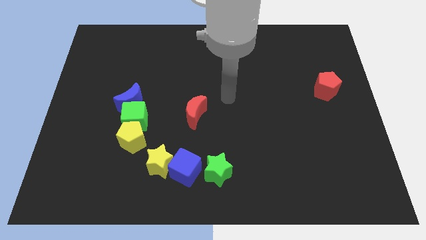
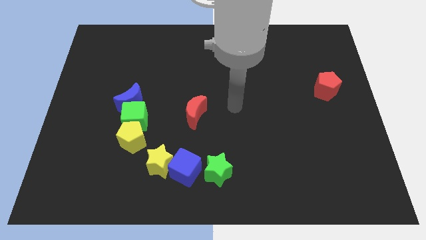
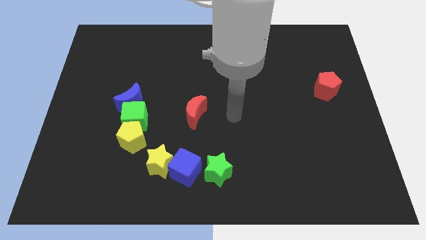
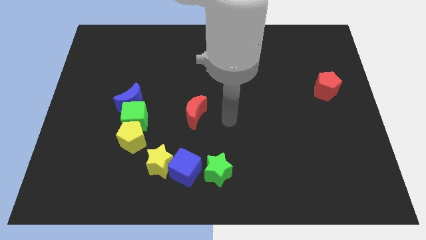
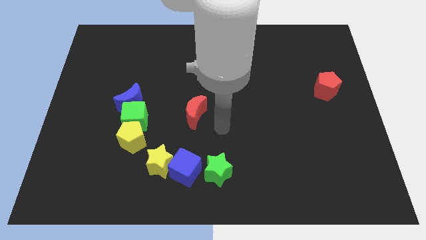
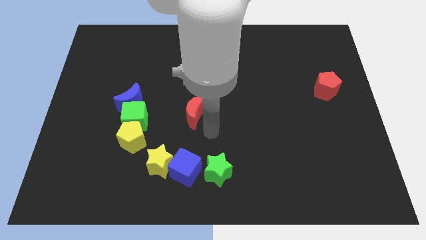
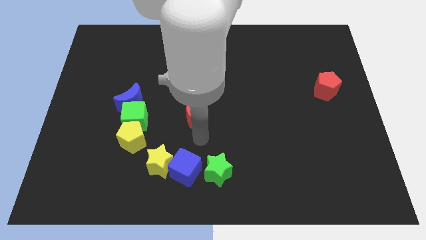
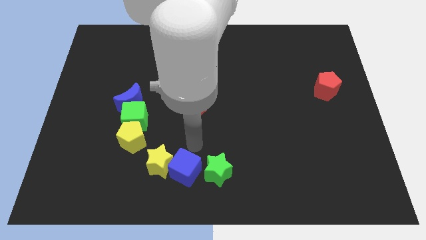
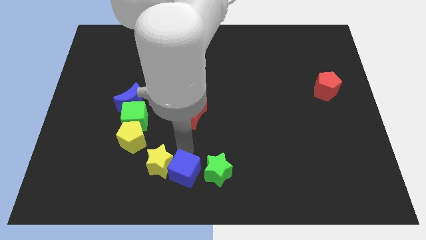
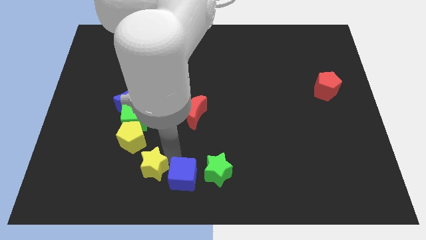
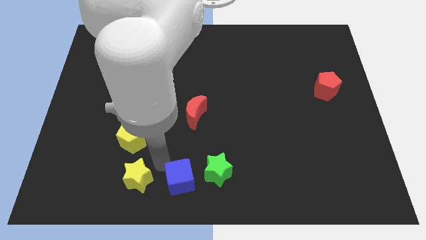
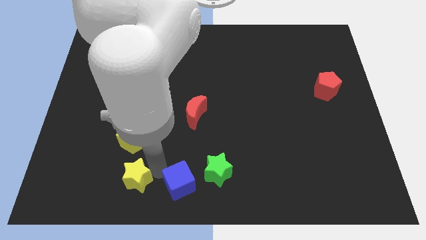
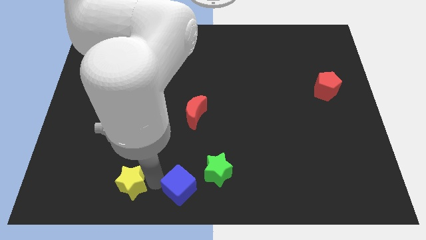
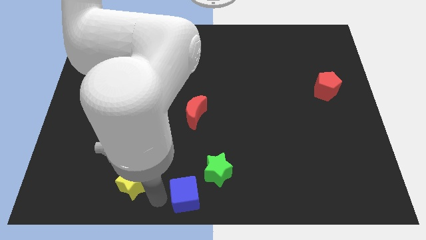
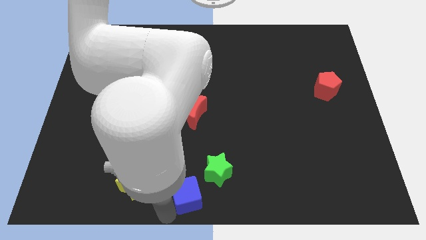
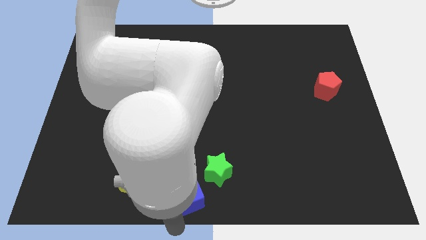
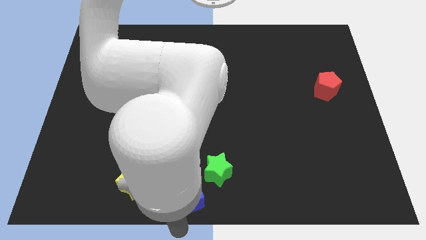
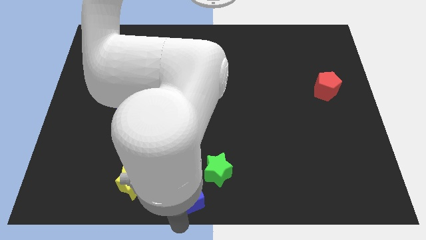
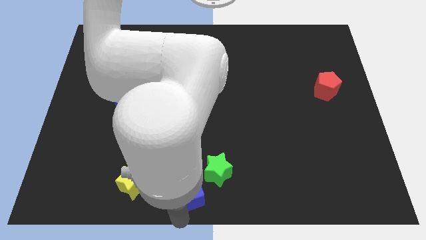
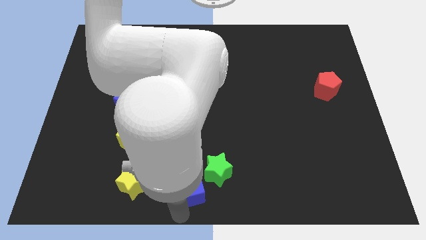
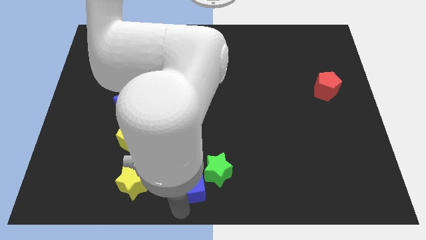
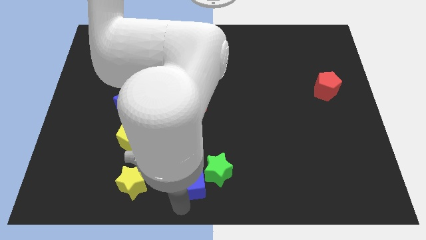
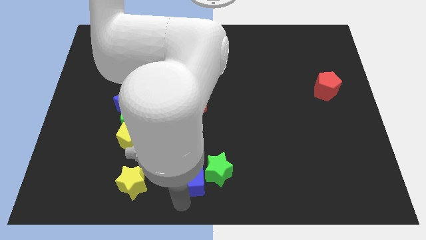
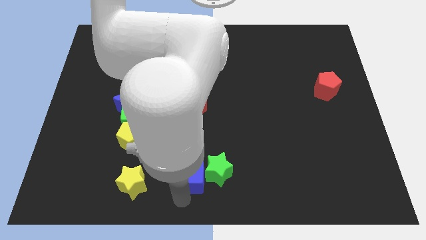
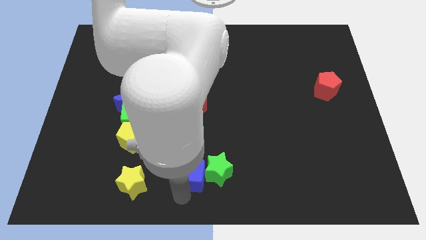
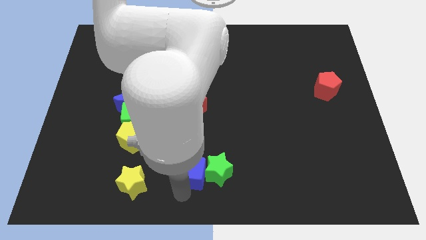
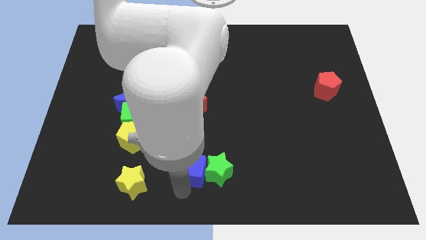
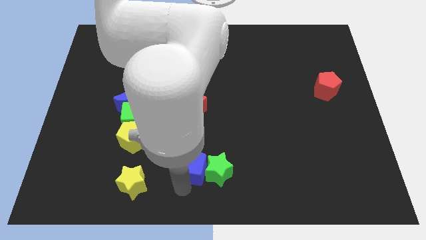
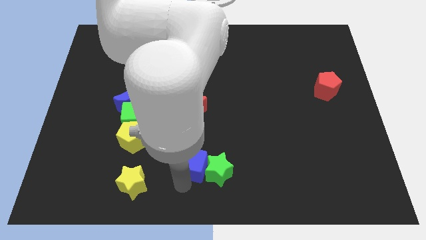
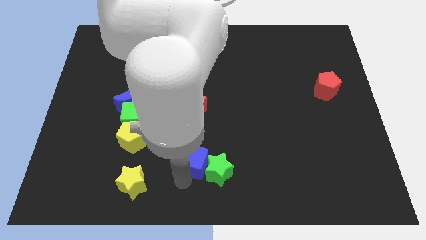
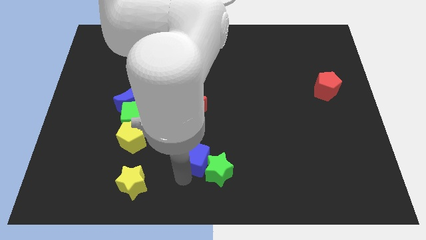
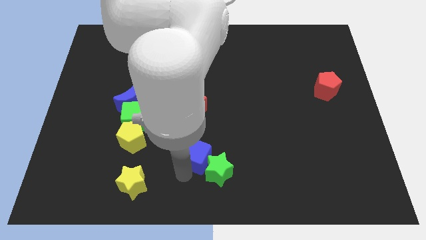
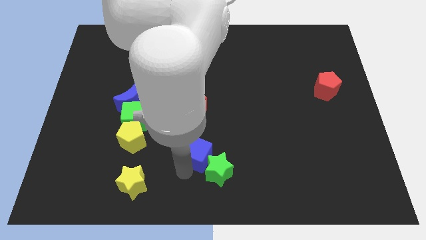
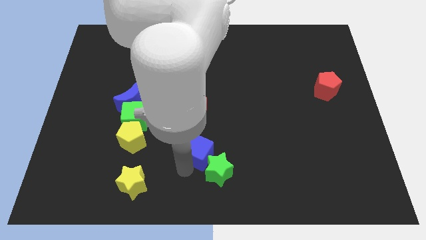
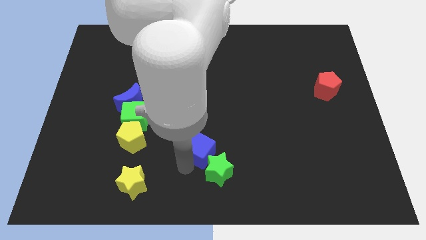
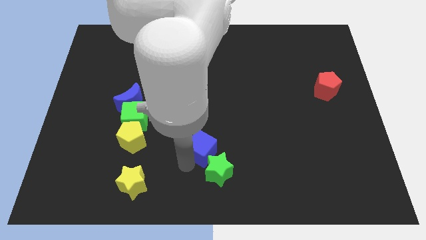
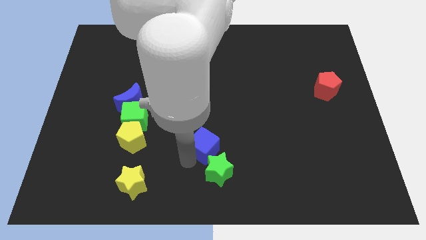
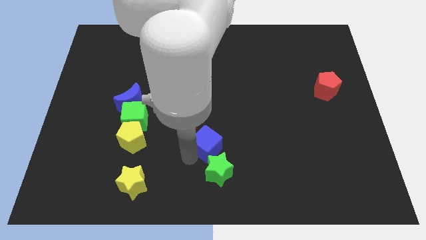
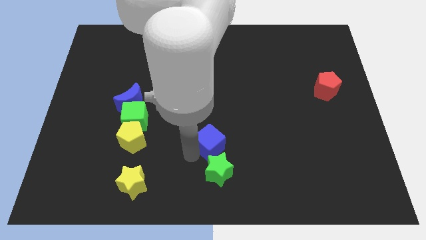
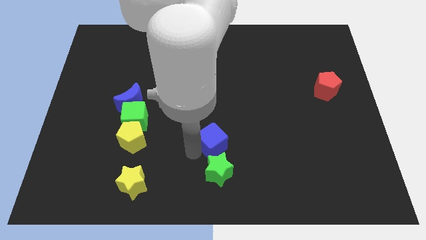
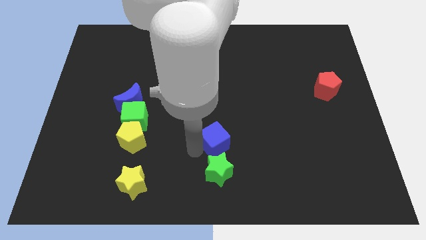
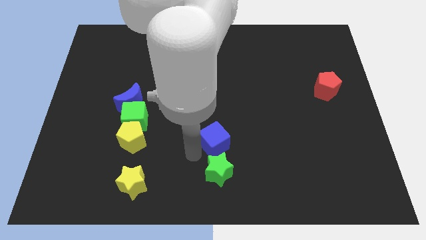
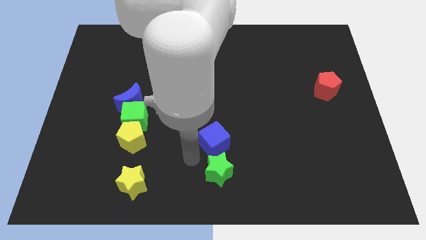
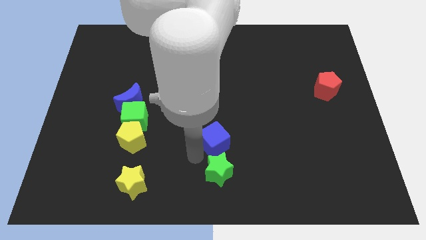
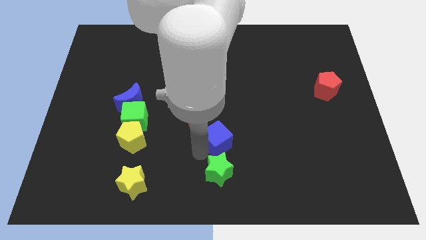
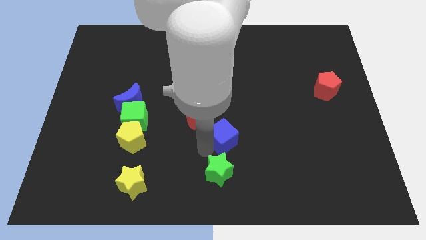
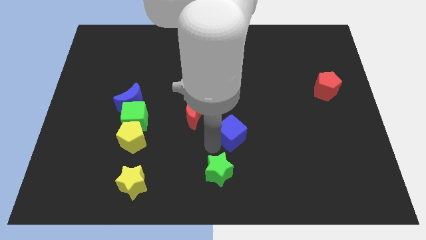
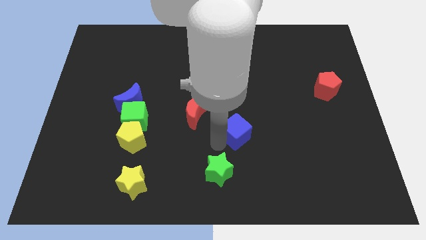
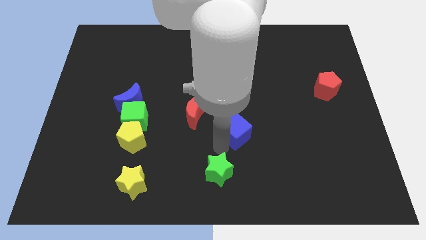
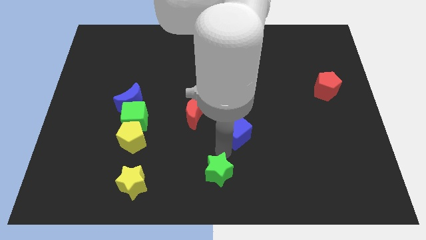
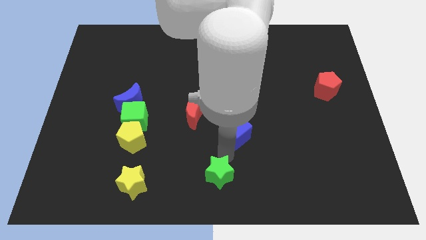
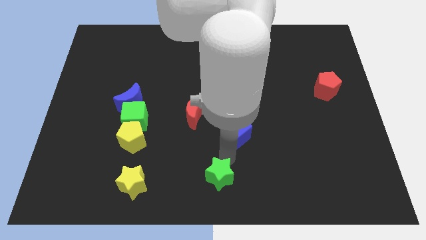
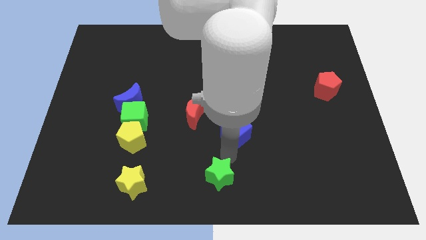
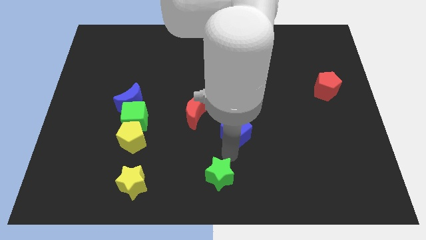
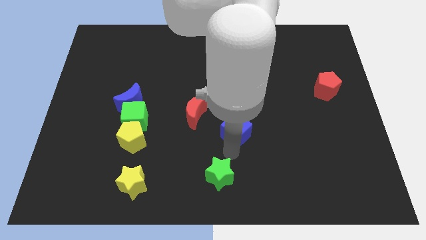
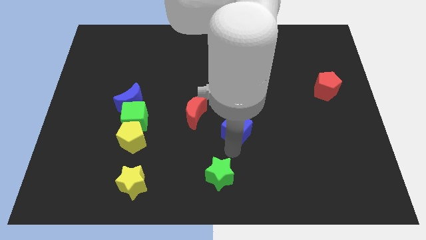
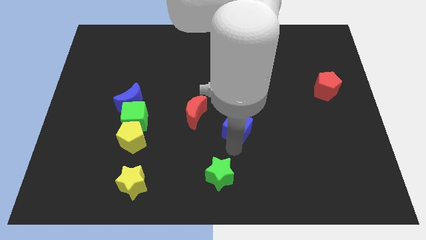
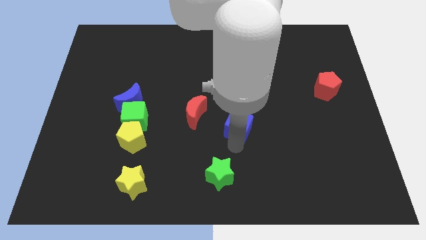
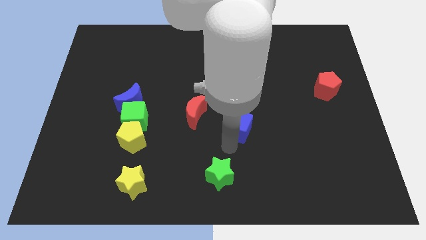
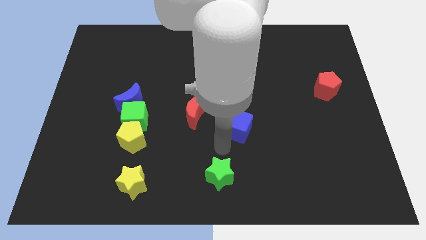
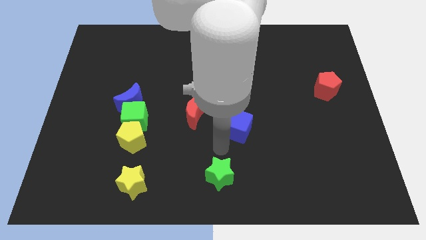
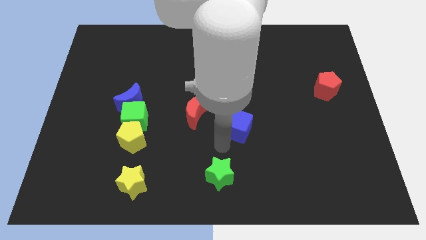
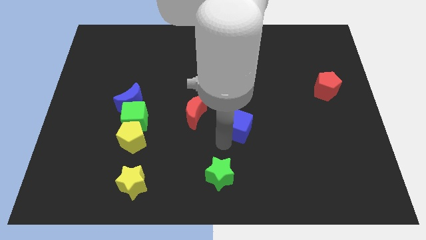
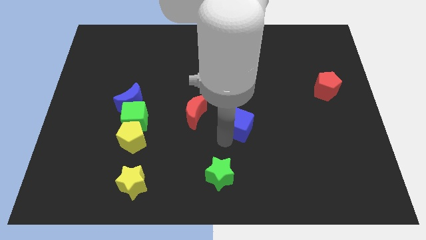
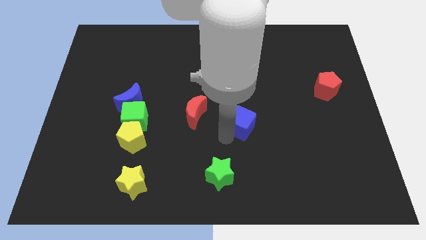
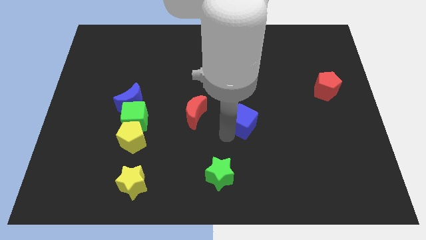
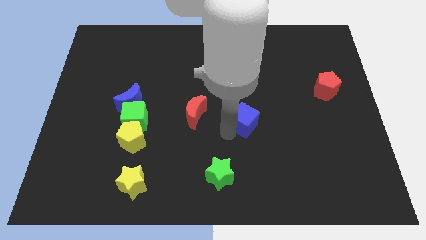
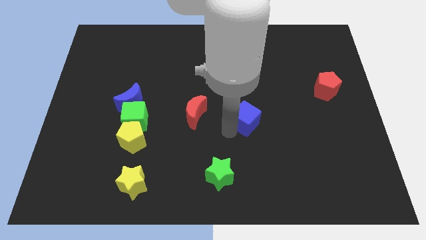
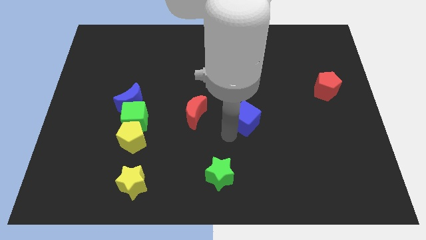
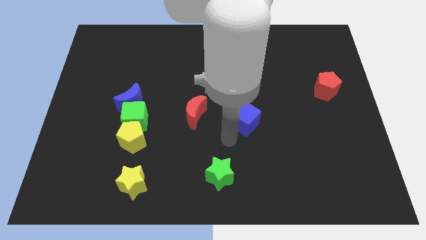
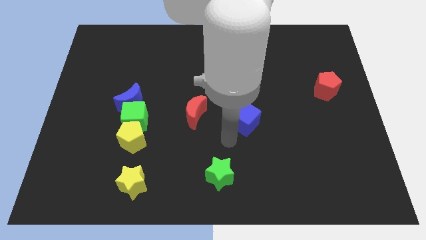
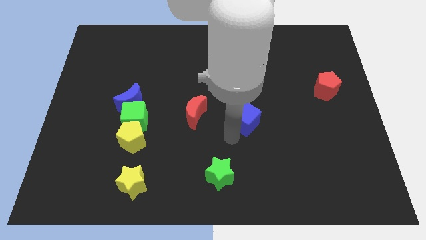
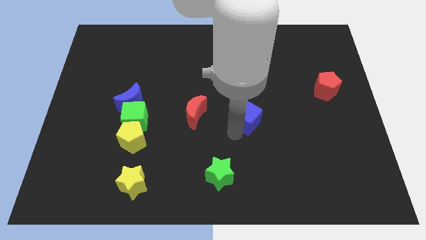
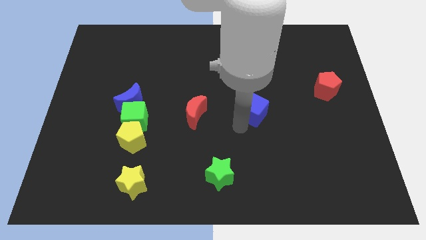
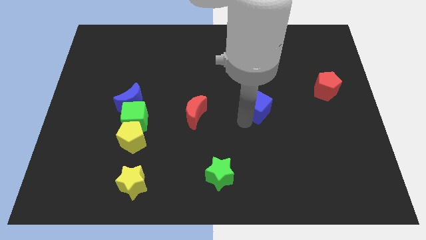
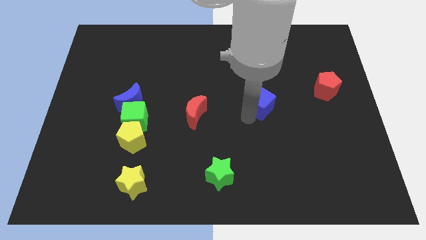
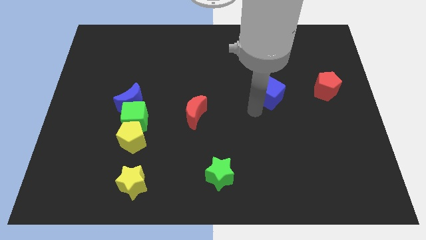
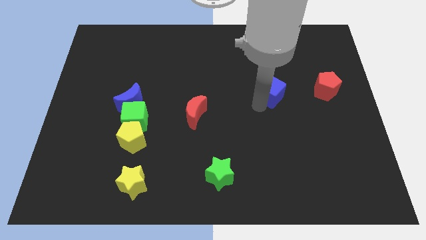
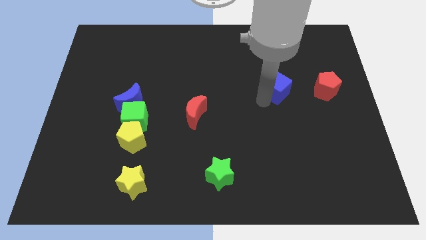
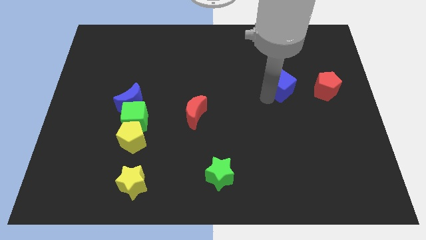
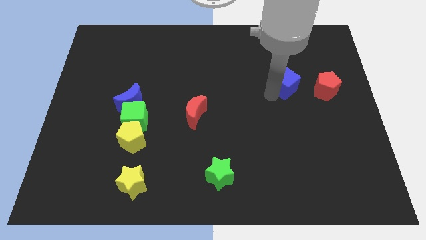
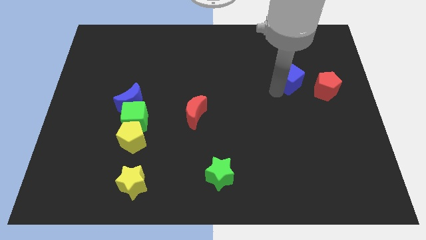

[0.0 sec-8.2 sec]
push the blue cube to the top left of the red pentagon
